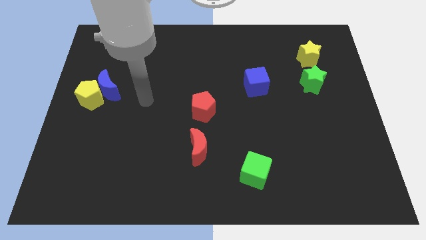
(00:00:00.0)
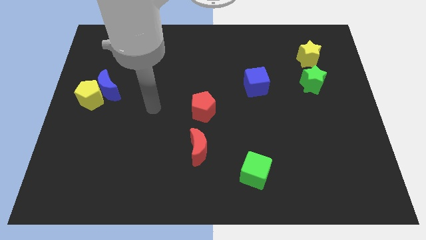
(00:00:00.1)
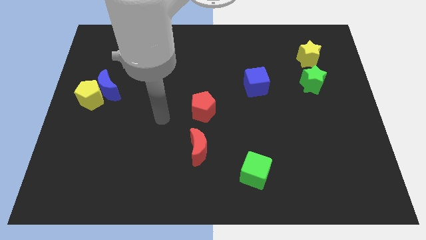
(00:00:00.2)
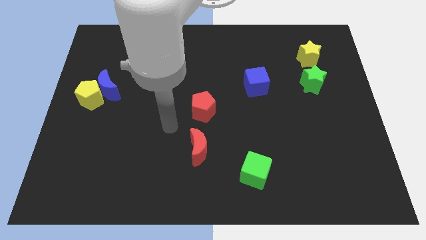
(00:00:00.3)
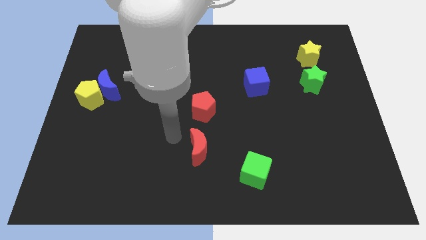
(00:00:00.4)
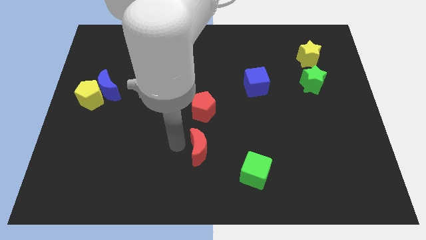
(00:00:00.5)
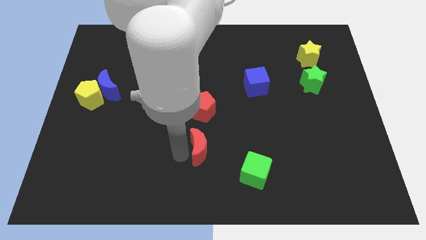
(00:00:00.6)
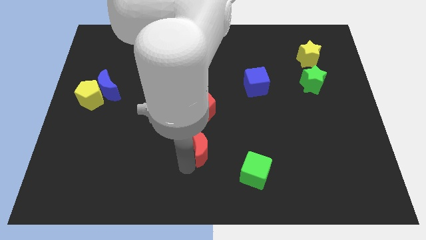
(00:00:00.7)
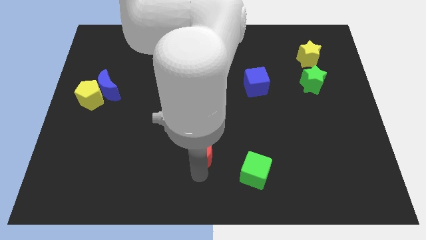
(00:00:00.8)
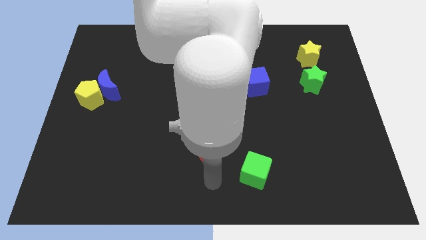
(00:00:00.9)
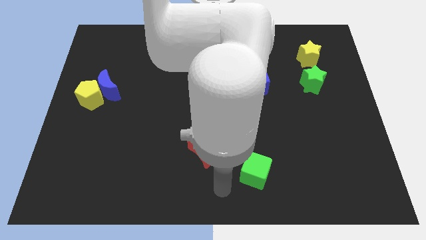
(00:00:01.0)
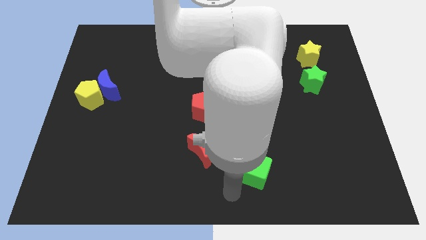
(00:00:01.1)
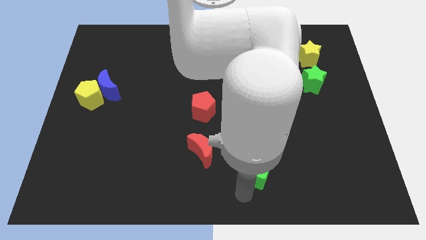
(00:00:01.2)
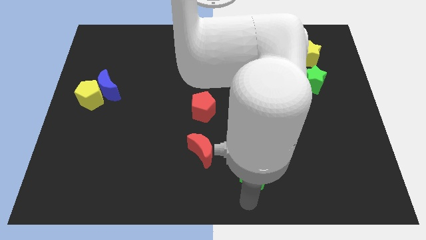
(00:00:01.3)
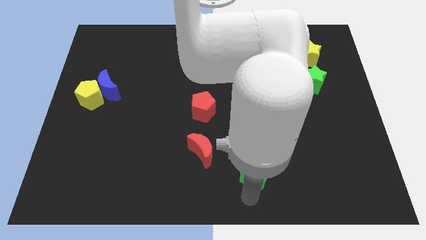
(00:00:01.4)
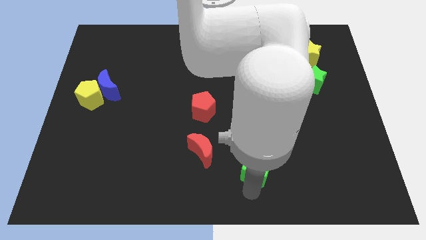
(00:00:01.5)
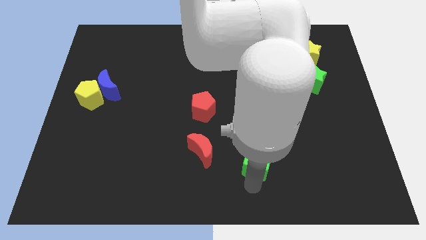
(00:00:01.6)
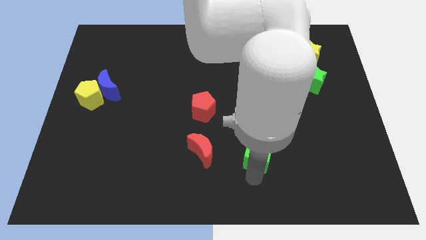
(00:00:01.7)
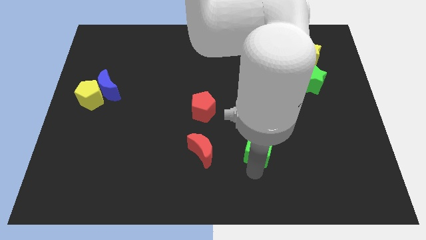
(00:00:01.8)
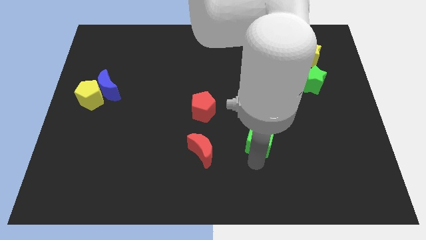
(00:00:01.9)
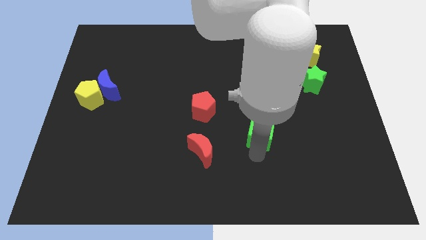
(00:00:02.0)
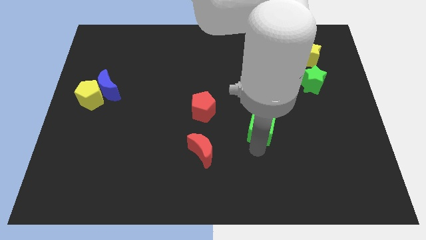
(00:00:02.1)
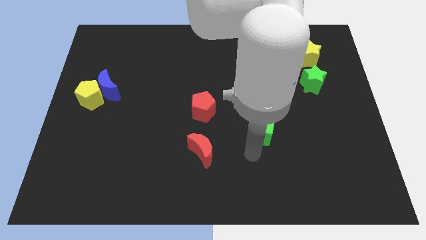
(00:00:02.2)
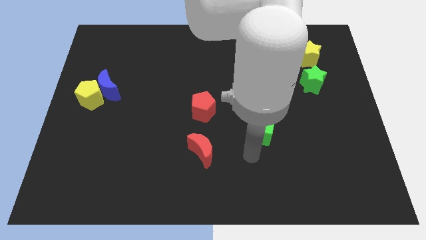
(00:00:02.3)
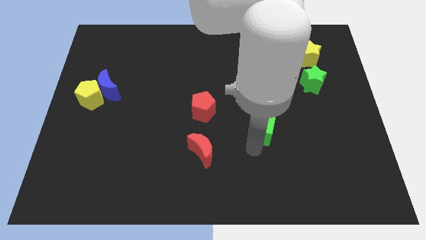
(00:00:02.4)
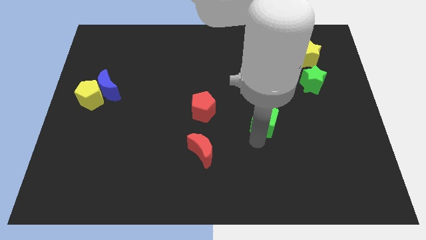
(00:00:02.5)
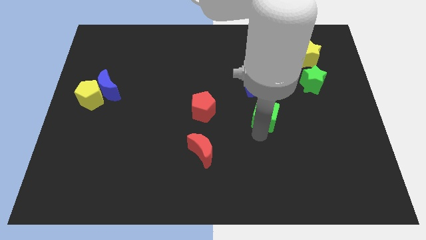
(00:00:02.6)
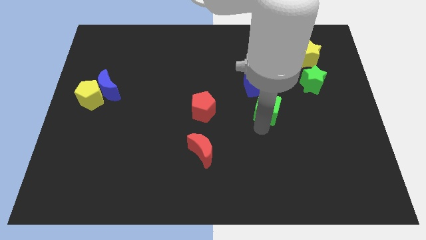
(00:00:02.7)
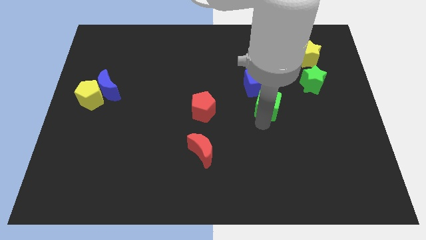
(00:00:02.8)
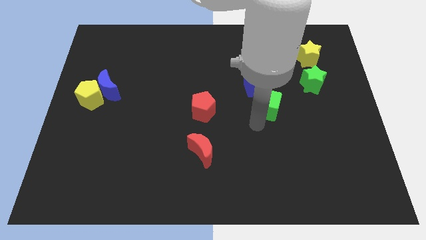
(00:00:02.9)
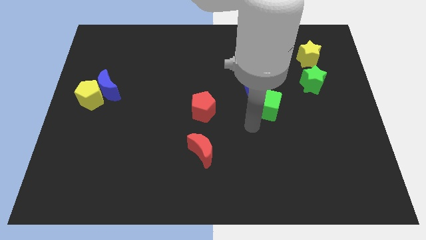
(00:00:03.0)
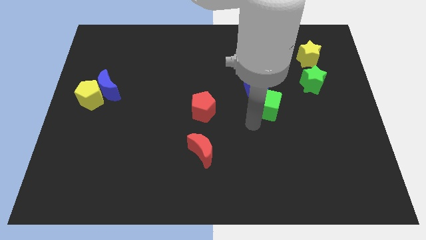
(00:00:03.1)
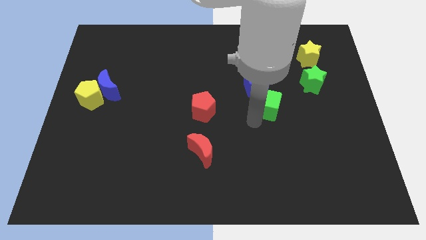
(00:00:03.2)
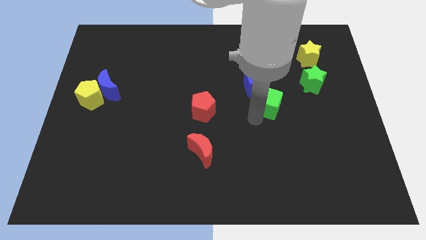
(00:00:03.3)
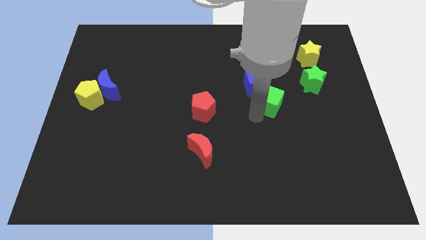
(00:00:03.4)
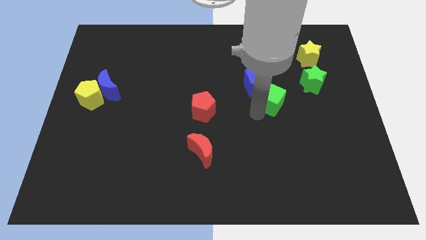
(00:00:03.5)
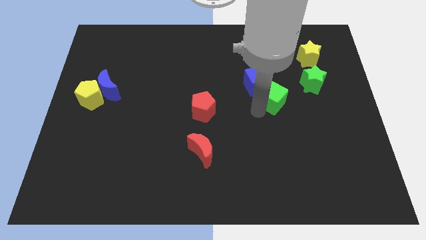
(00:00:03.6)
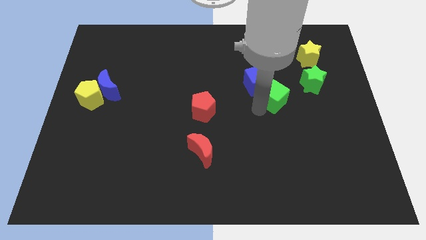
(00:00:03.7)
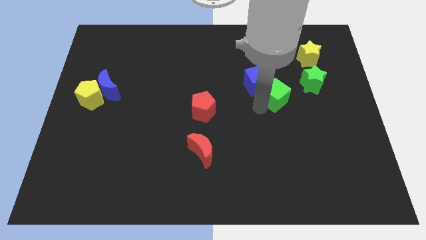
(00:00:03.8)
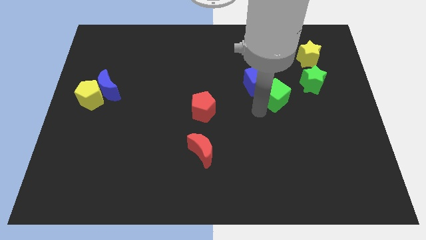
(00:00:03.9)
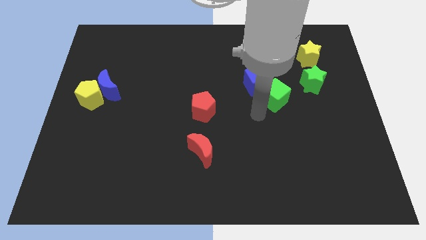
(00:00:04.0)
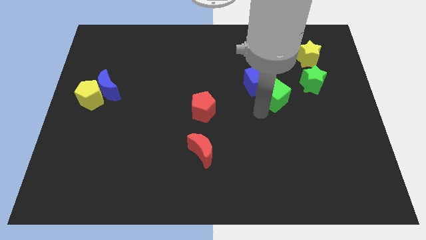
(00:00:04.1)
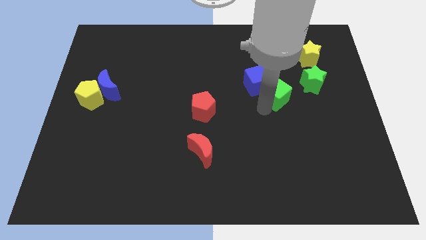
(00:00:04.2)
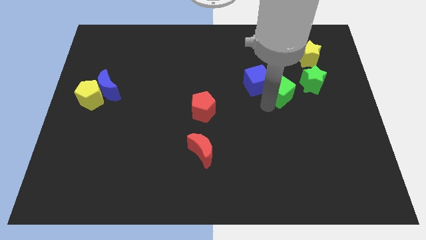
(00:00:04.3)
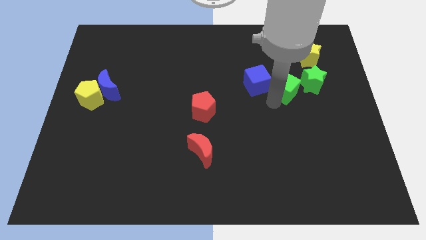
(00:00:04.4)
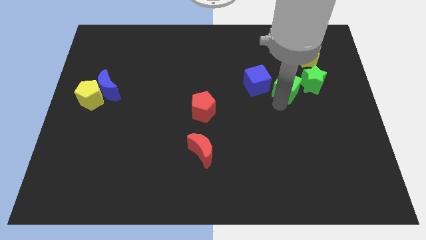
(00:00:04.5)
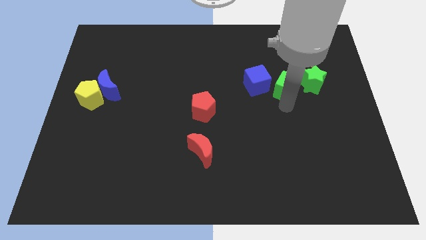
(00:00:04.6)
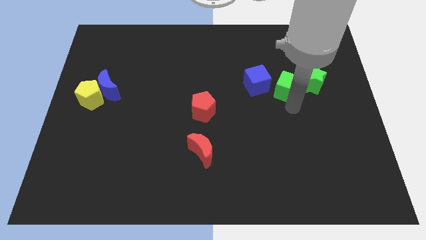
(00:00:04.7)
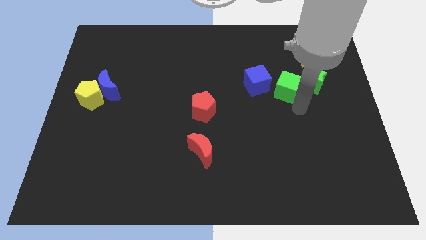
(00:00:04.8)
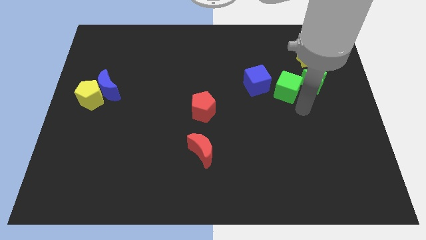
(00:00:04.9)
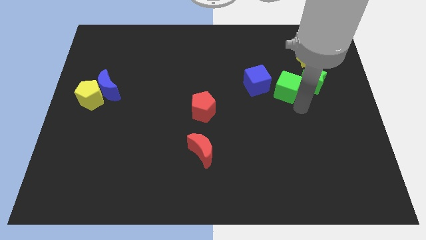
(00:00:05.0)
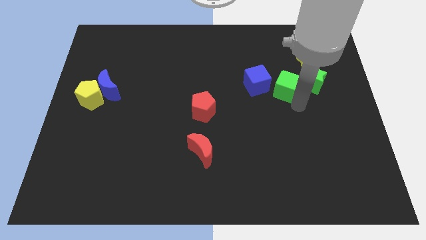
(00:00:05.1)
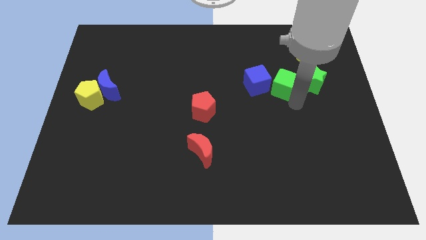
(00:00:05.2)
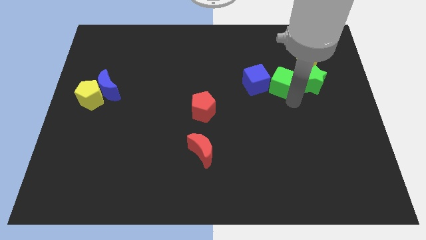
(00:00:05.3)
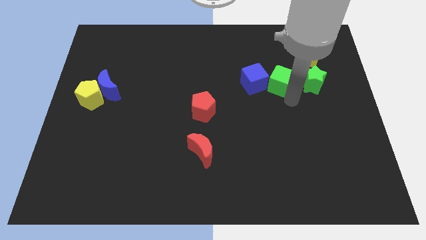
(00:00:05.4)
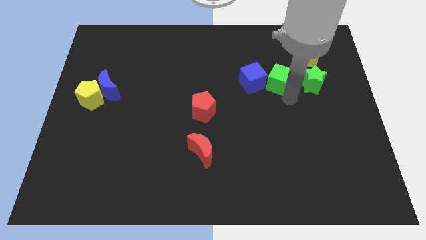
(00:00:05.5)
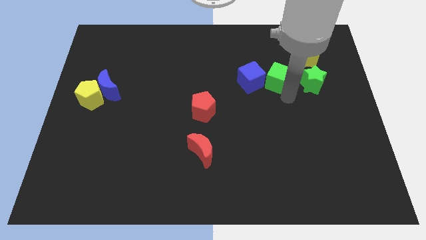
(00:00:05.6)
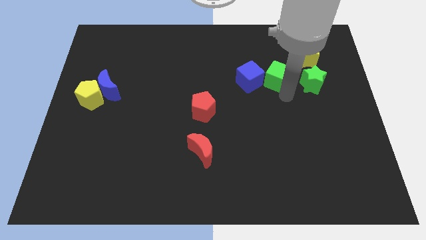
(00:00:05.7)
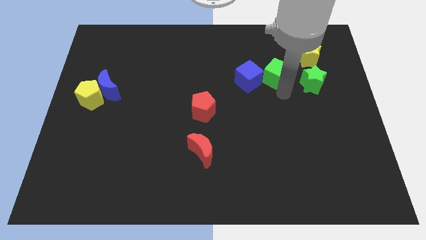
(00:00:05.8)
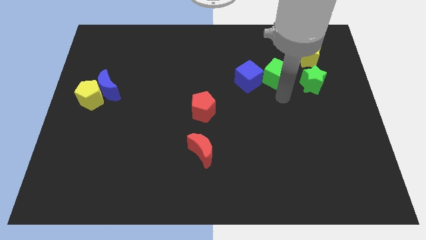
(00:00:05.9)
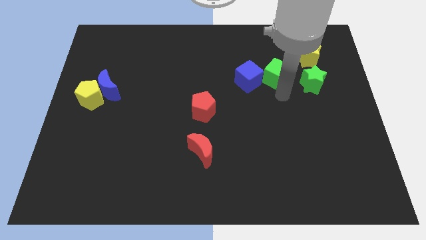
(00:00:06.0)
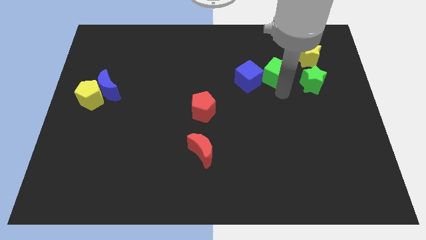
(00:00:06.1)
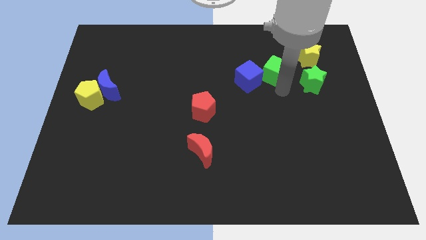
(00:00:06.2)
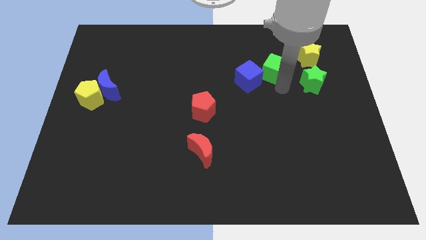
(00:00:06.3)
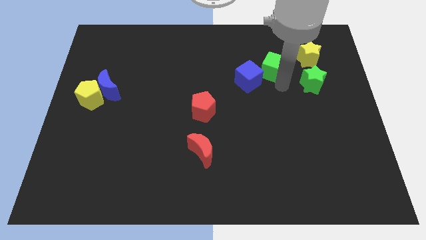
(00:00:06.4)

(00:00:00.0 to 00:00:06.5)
push the green cube to the left of the yellow star

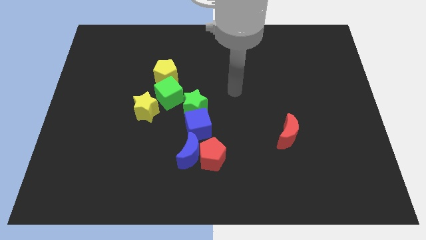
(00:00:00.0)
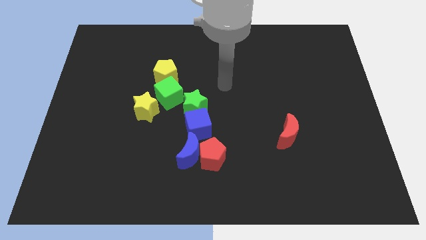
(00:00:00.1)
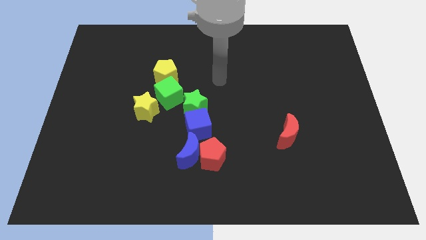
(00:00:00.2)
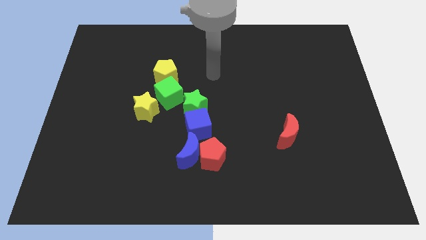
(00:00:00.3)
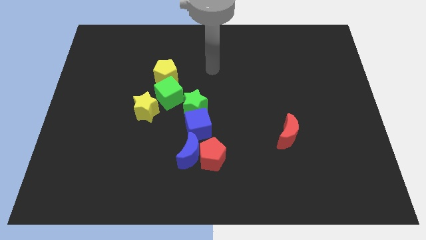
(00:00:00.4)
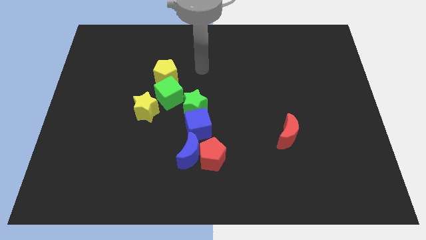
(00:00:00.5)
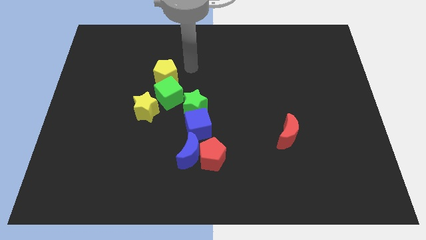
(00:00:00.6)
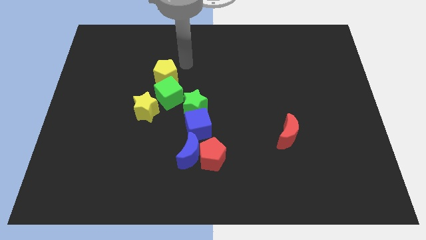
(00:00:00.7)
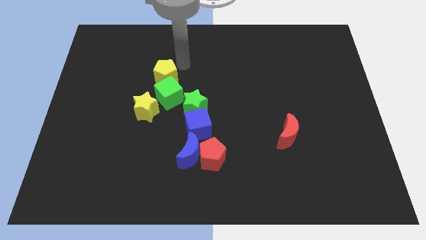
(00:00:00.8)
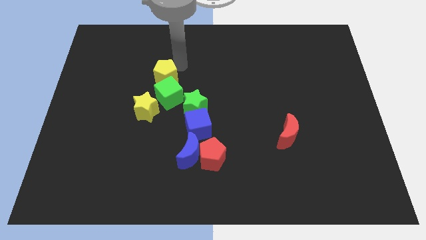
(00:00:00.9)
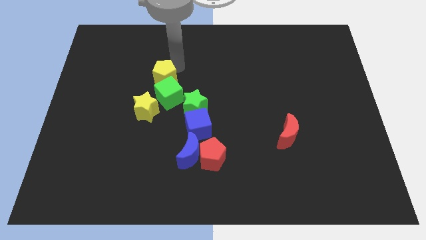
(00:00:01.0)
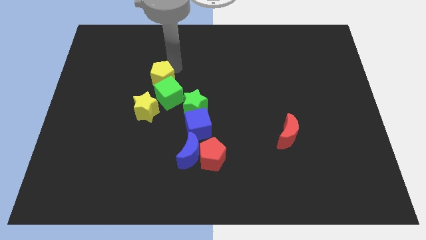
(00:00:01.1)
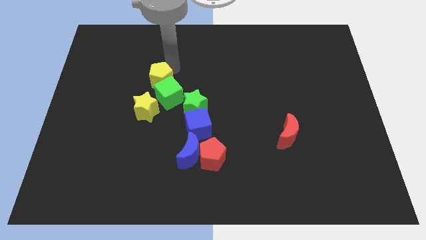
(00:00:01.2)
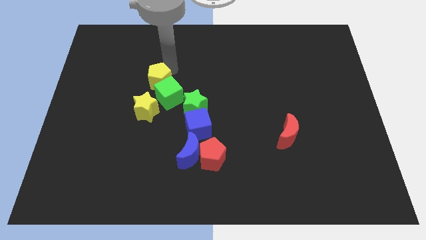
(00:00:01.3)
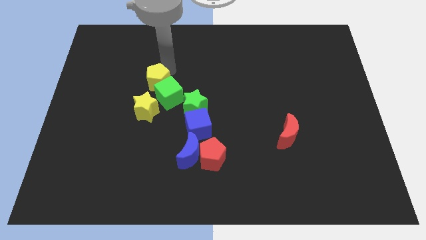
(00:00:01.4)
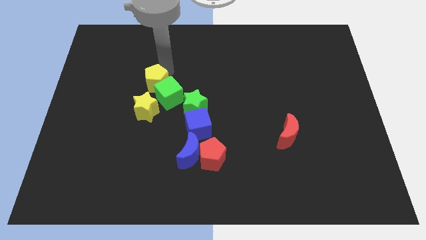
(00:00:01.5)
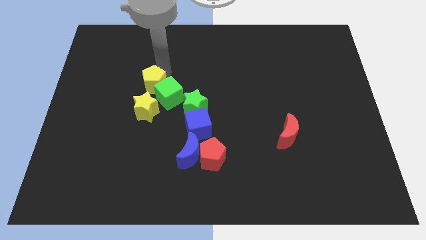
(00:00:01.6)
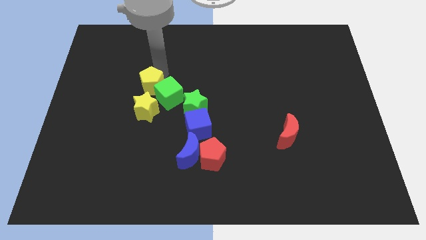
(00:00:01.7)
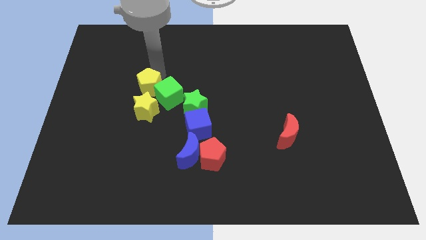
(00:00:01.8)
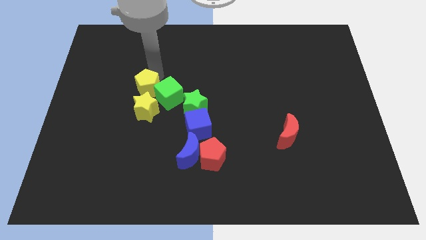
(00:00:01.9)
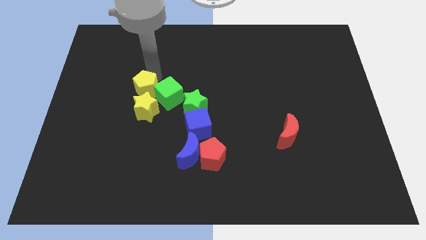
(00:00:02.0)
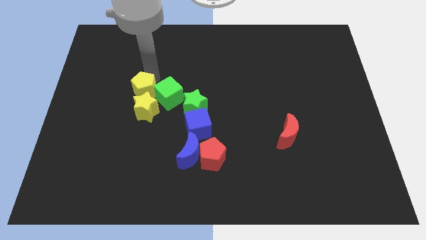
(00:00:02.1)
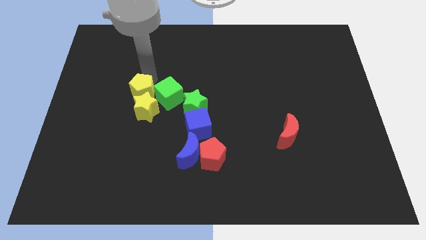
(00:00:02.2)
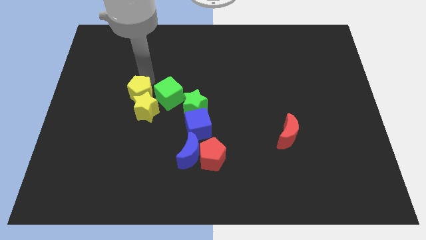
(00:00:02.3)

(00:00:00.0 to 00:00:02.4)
put the yellow pentagon left of the green star
